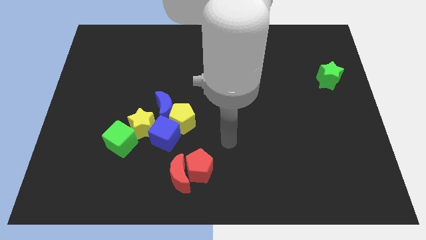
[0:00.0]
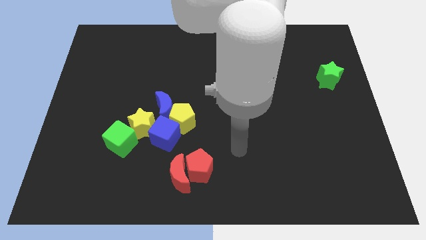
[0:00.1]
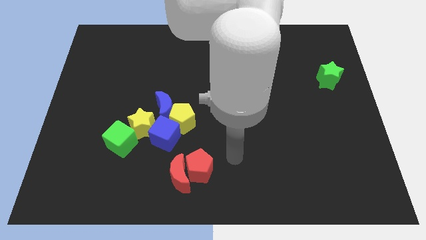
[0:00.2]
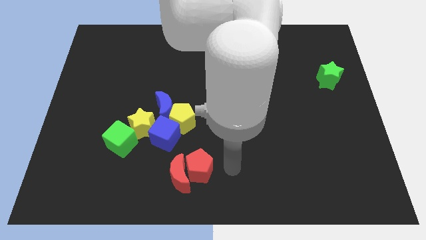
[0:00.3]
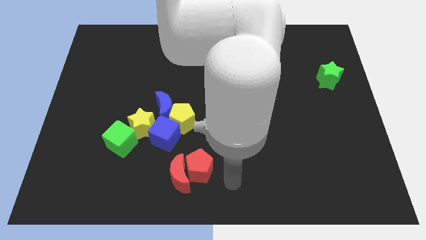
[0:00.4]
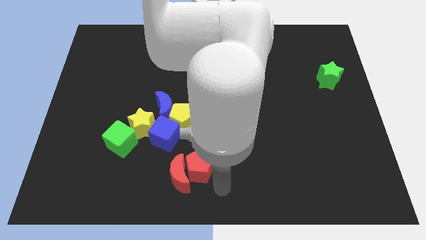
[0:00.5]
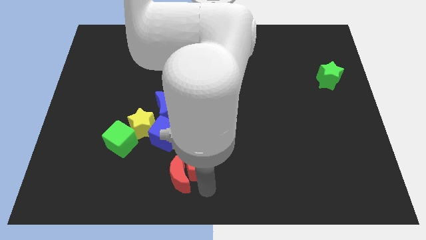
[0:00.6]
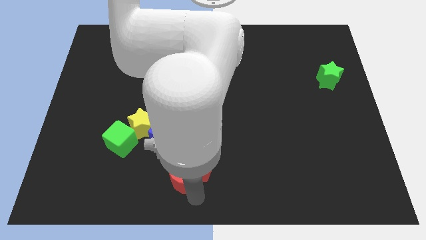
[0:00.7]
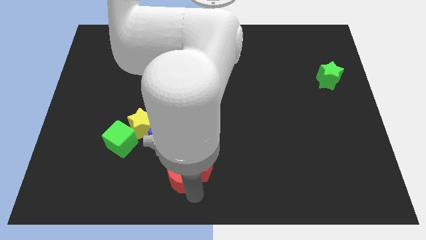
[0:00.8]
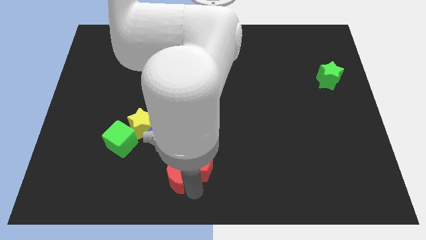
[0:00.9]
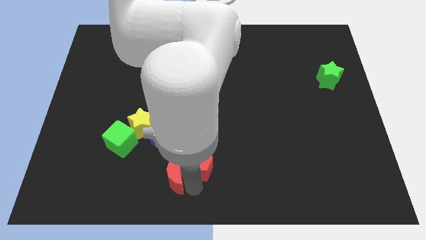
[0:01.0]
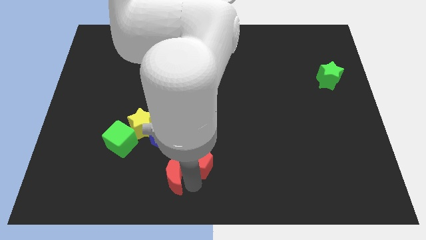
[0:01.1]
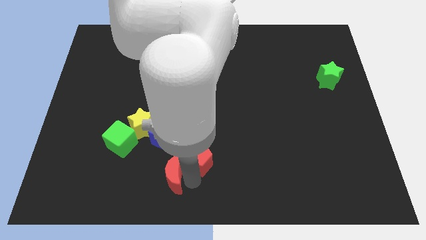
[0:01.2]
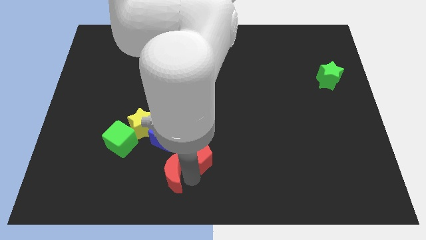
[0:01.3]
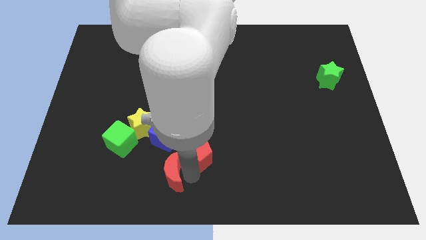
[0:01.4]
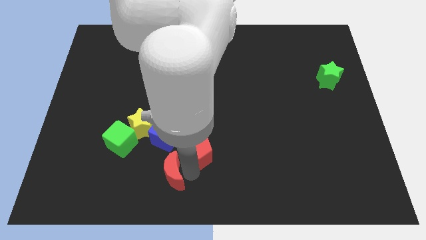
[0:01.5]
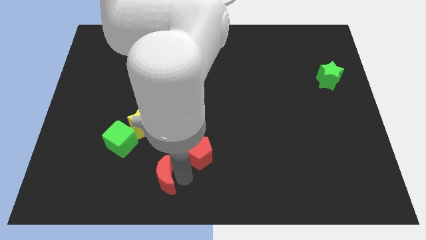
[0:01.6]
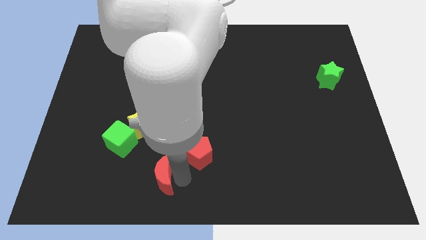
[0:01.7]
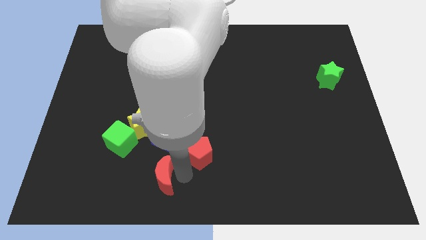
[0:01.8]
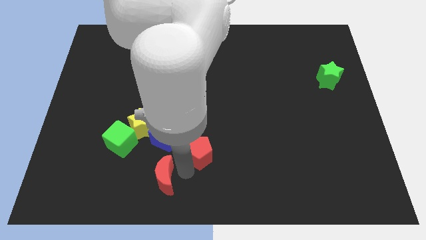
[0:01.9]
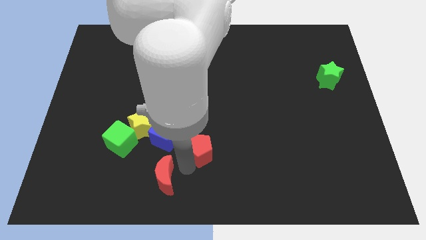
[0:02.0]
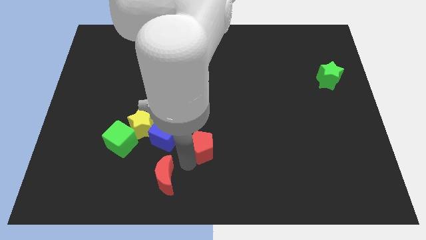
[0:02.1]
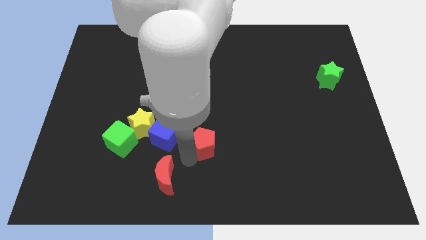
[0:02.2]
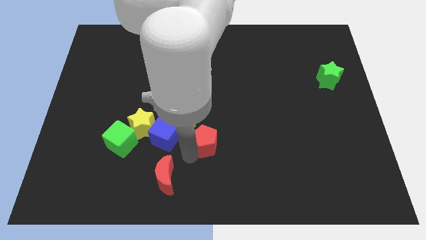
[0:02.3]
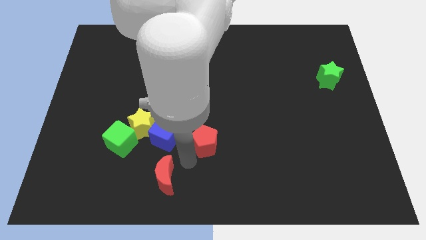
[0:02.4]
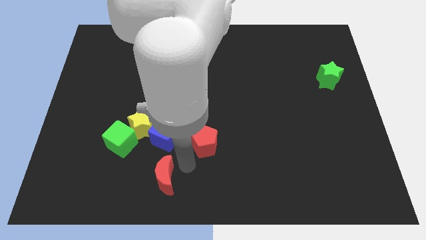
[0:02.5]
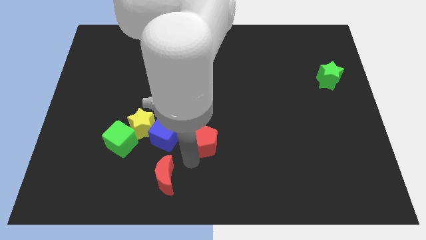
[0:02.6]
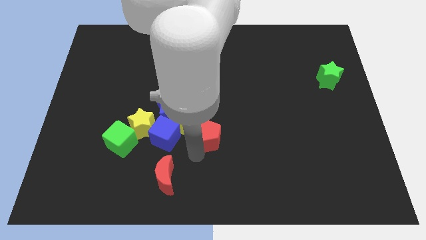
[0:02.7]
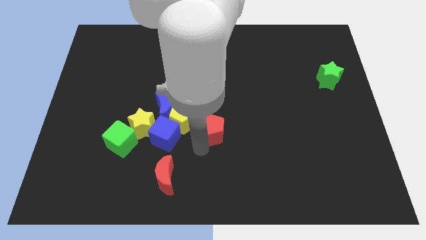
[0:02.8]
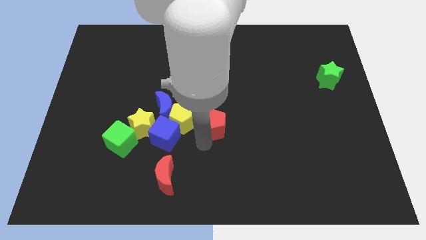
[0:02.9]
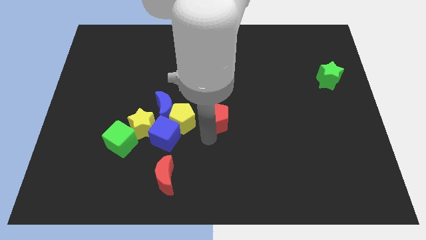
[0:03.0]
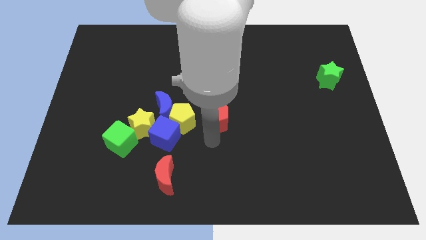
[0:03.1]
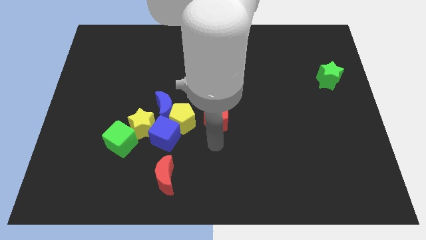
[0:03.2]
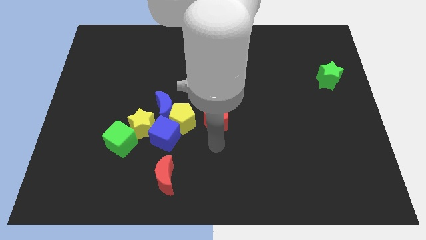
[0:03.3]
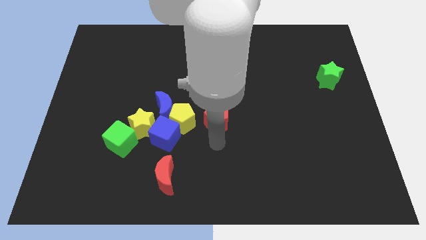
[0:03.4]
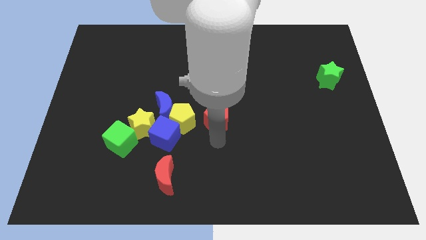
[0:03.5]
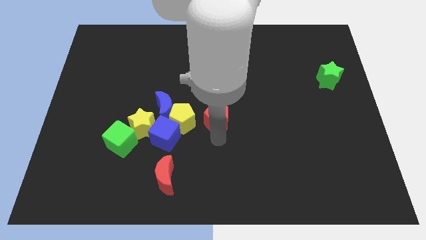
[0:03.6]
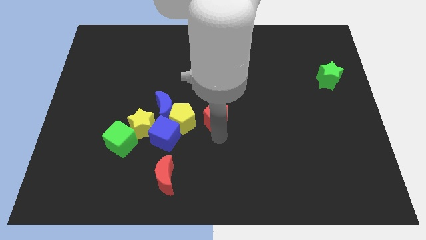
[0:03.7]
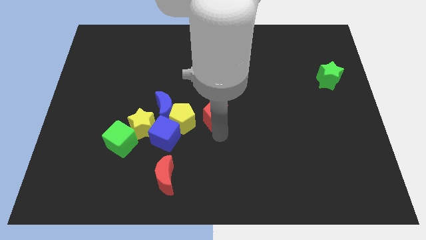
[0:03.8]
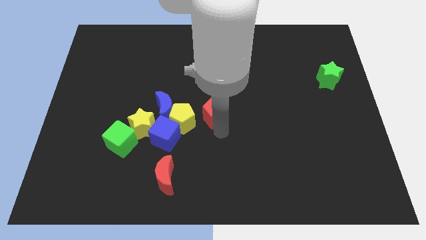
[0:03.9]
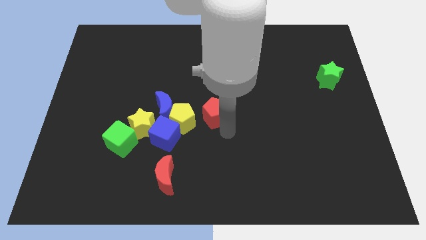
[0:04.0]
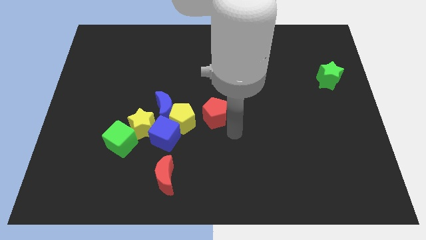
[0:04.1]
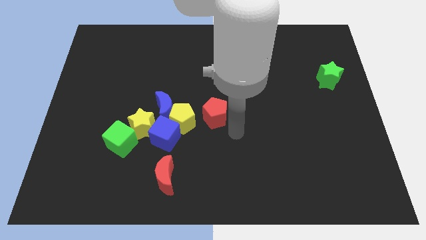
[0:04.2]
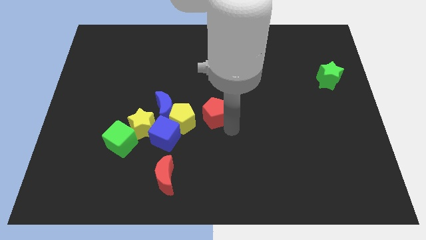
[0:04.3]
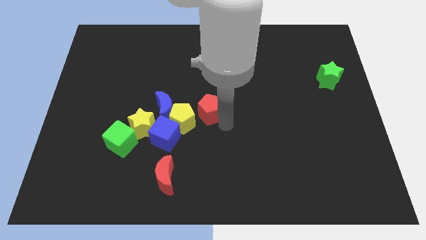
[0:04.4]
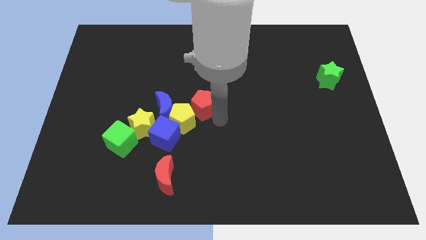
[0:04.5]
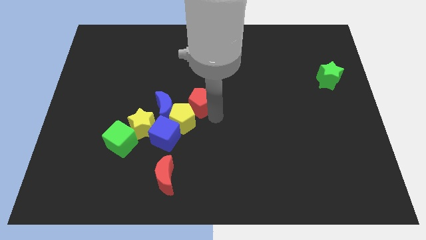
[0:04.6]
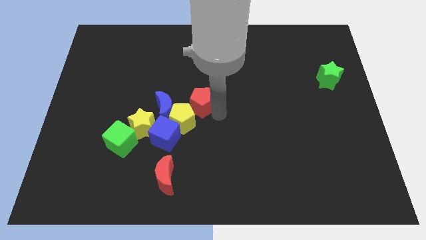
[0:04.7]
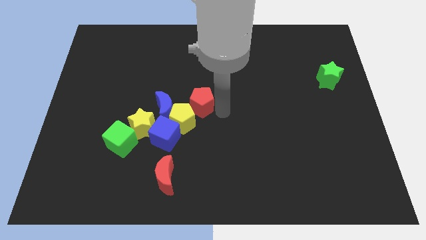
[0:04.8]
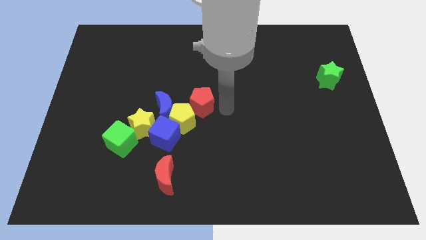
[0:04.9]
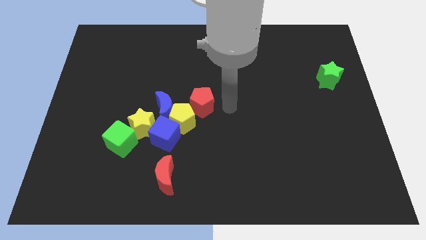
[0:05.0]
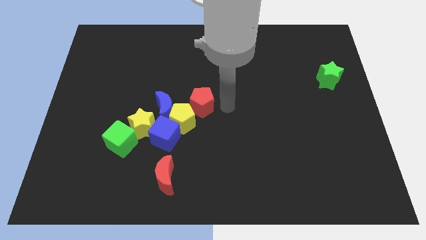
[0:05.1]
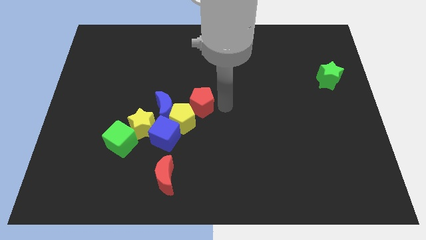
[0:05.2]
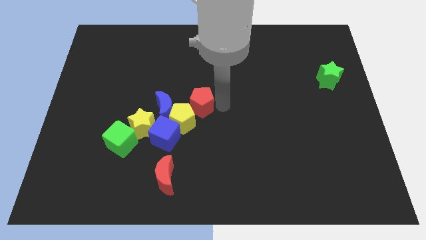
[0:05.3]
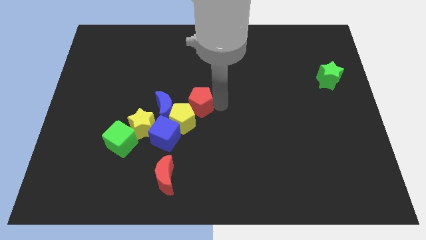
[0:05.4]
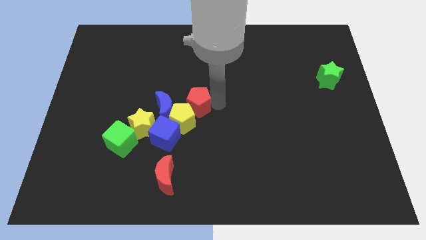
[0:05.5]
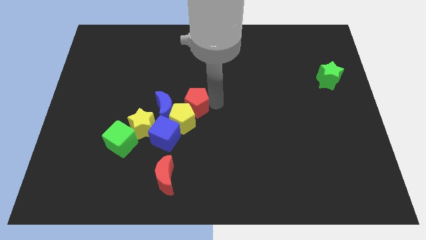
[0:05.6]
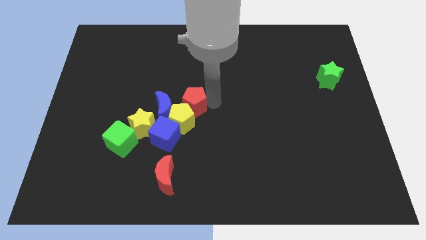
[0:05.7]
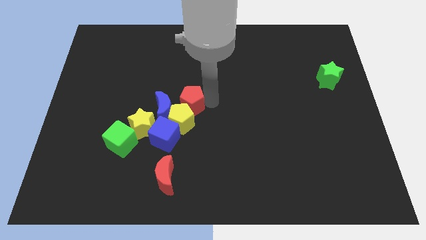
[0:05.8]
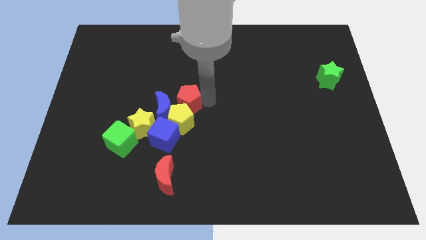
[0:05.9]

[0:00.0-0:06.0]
put the red pentagon towards the blue moon
